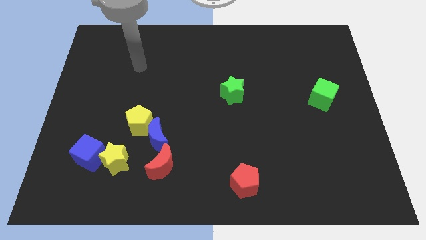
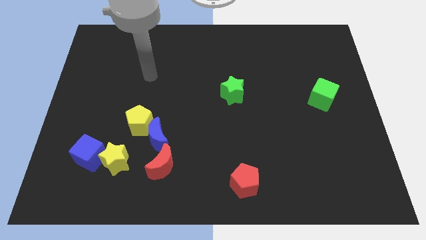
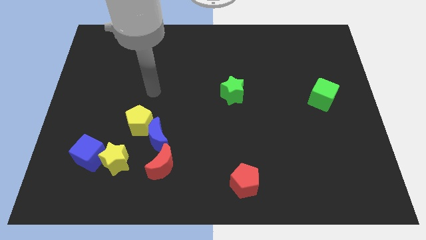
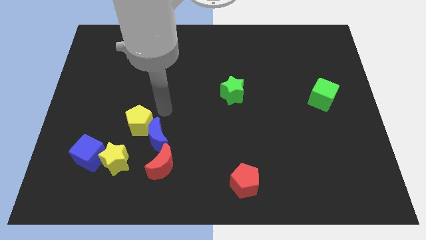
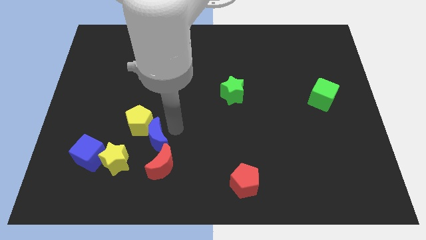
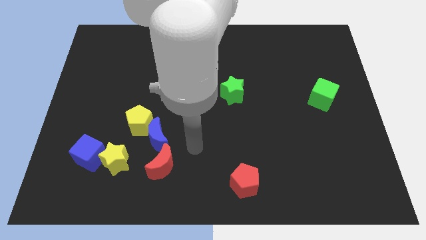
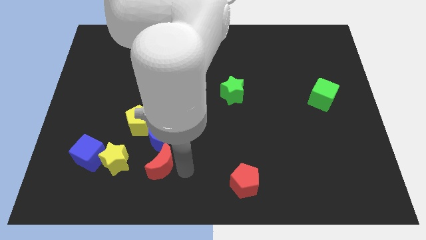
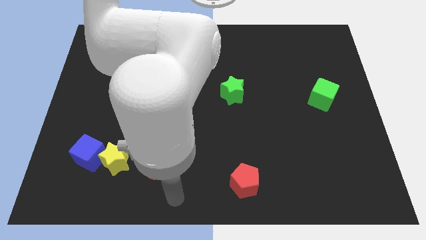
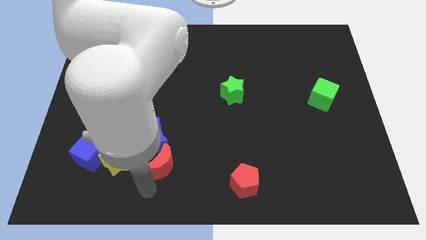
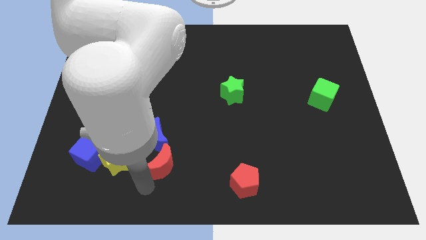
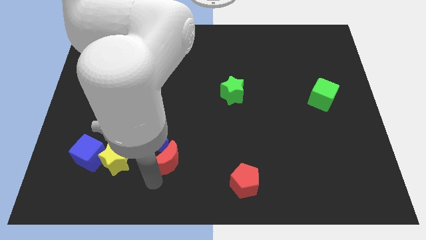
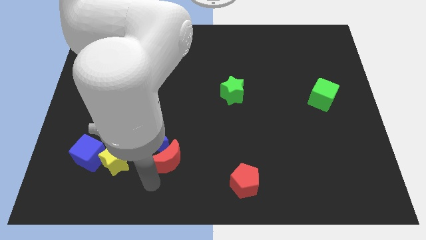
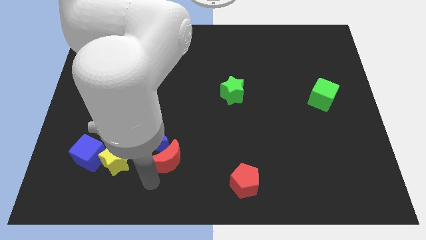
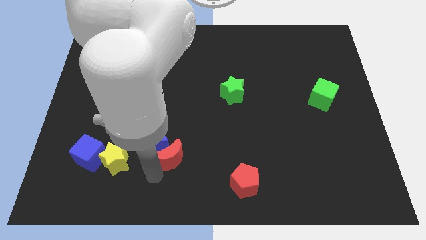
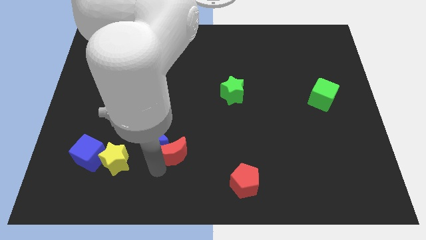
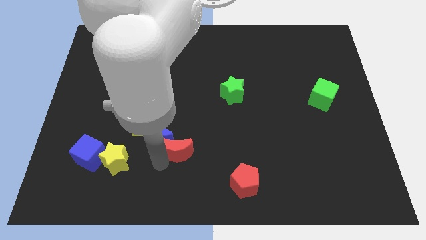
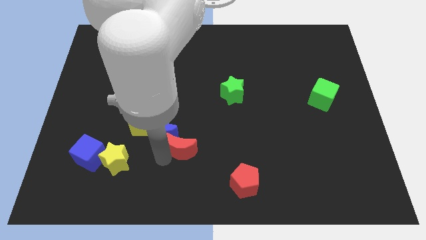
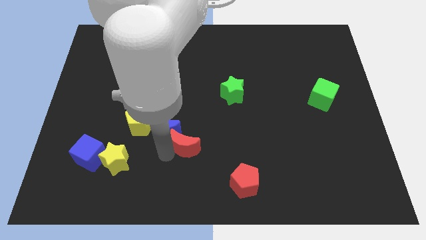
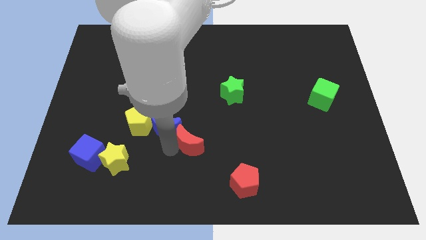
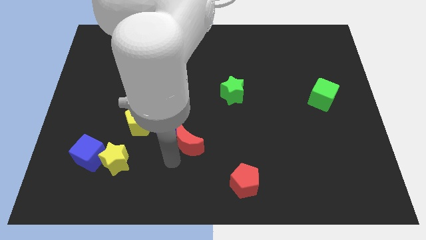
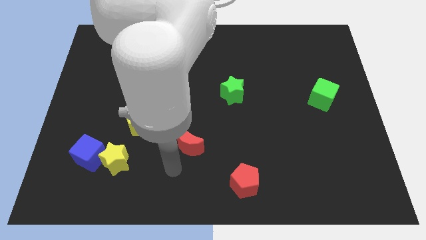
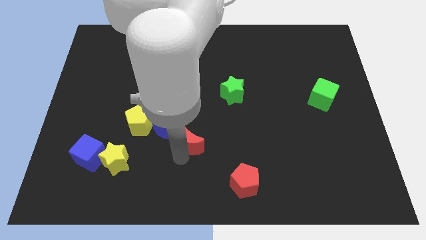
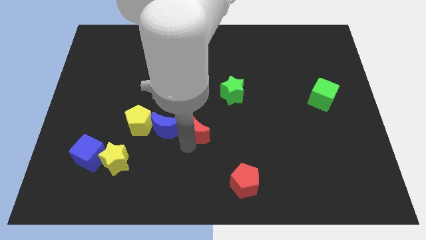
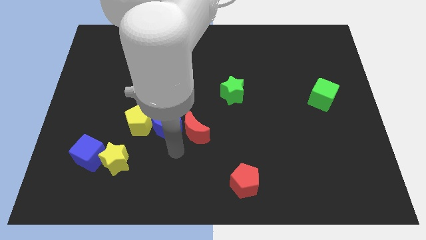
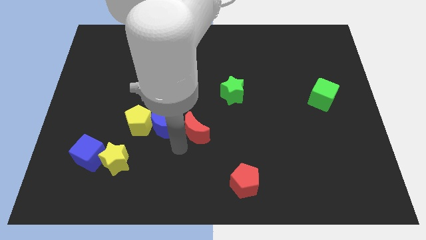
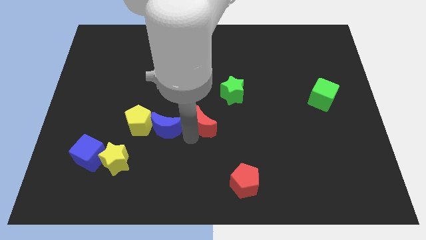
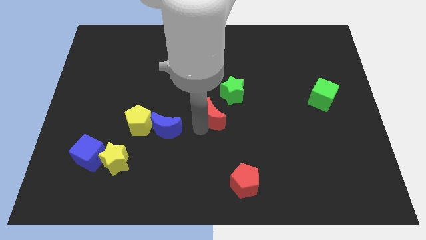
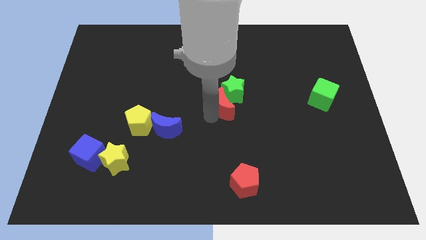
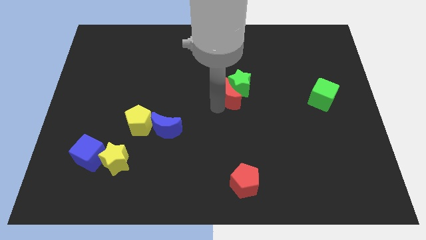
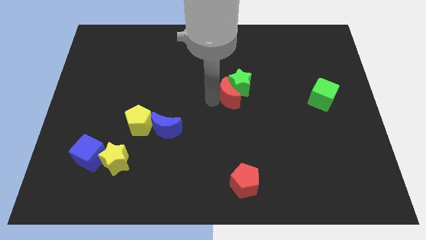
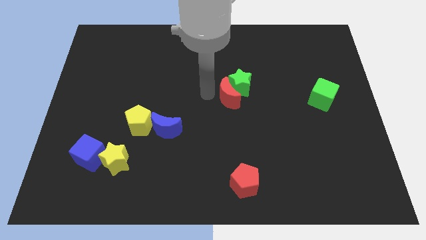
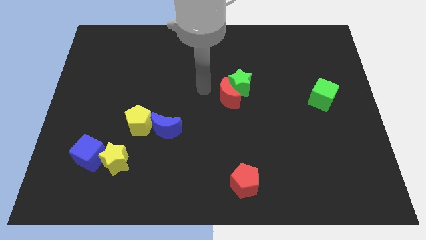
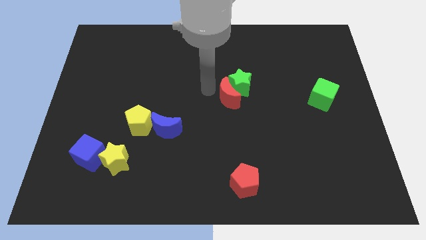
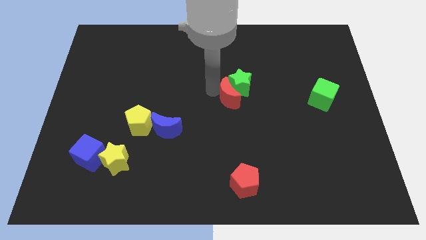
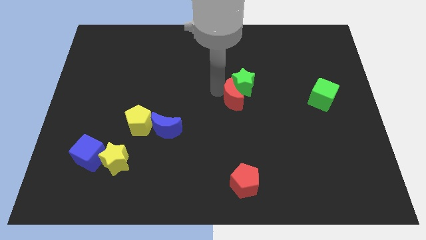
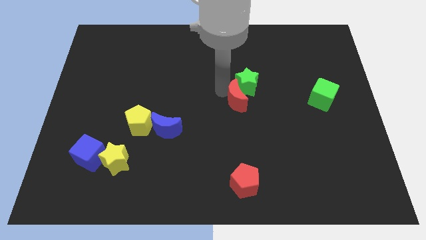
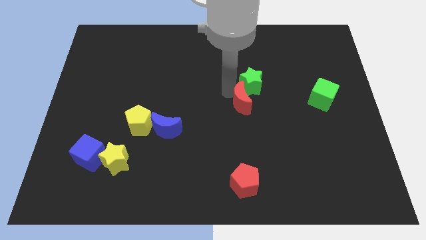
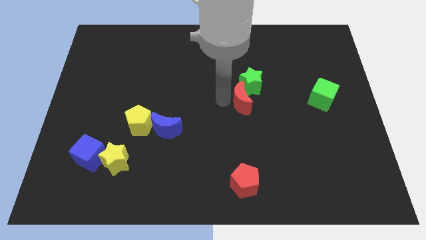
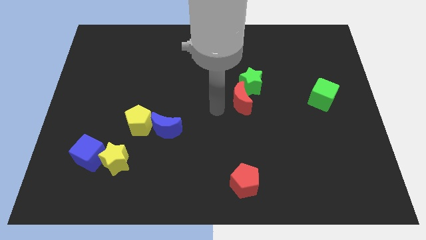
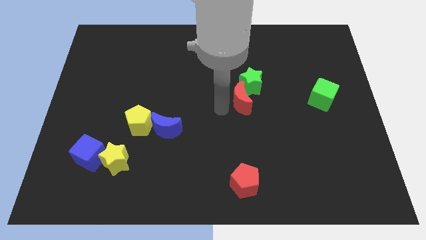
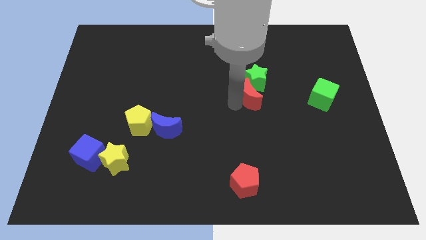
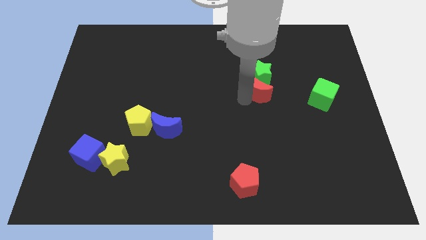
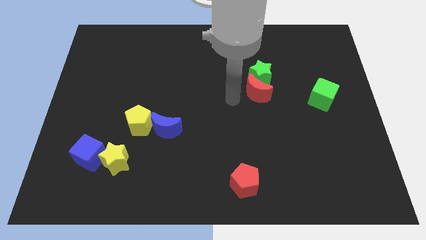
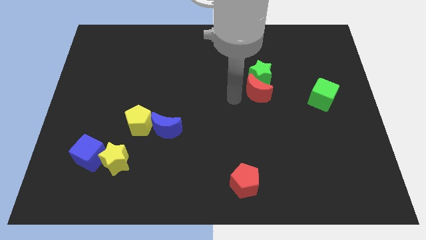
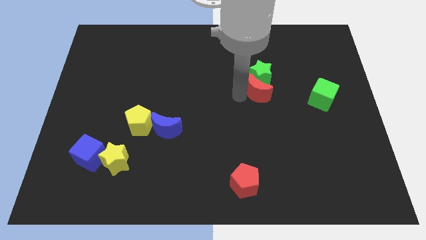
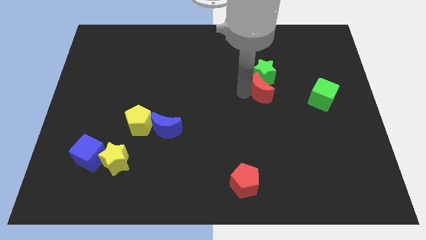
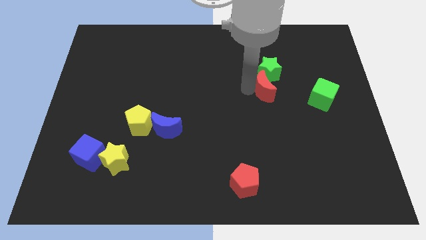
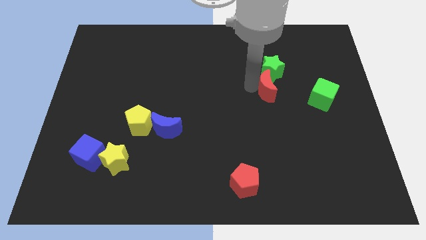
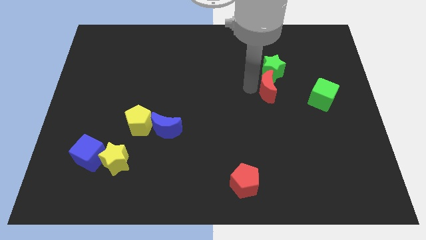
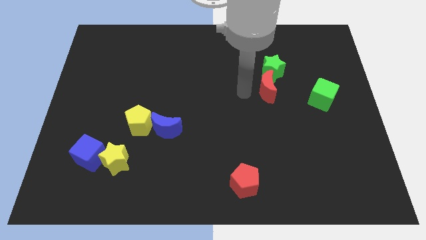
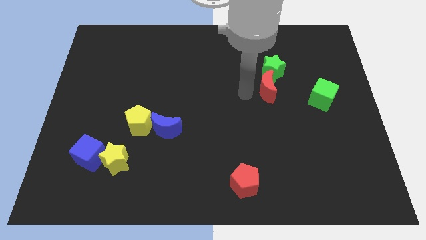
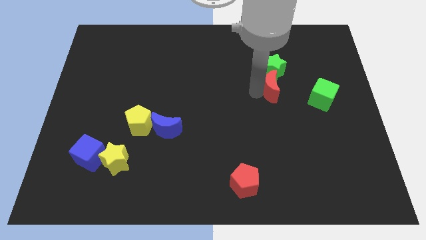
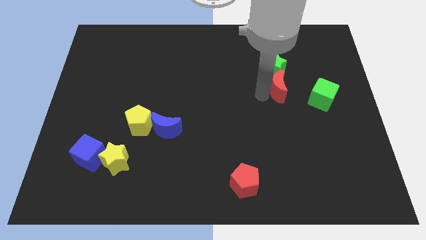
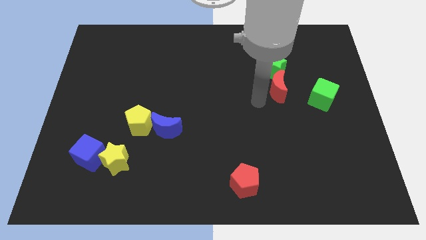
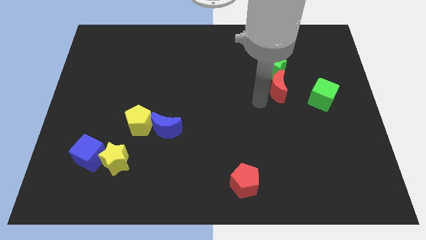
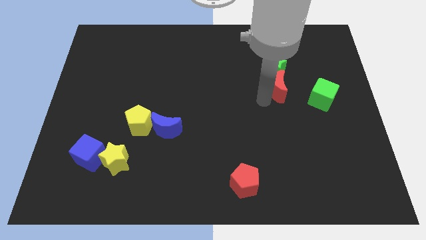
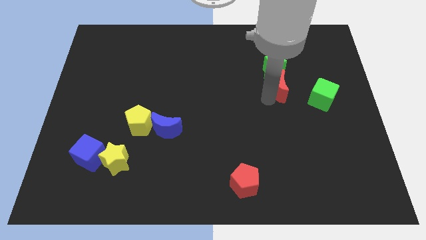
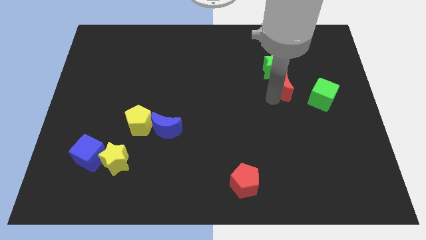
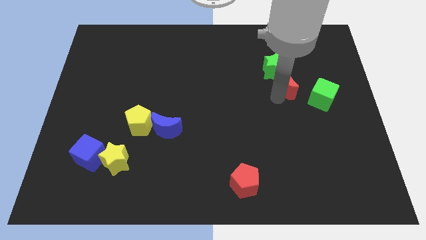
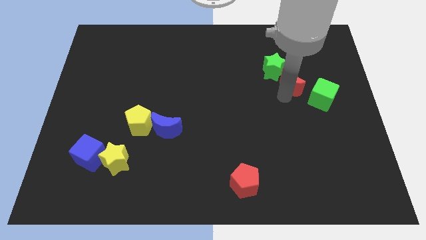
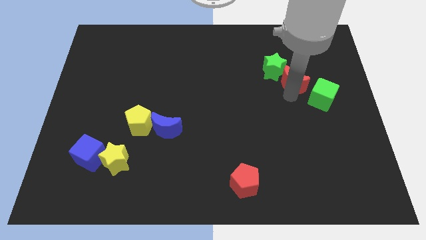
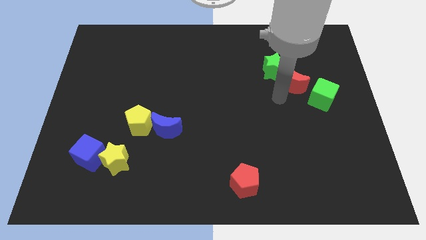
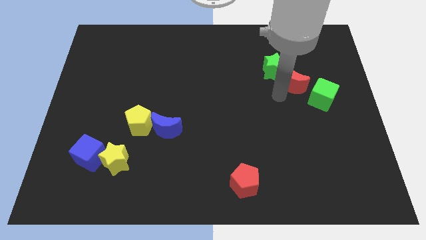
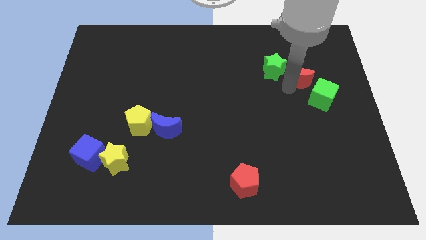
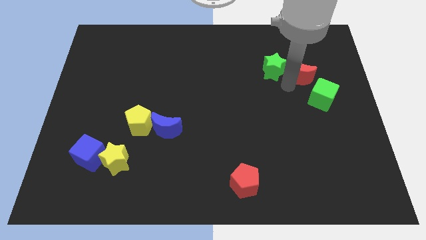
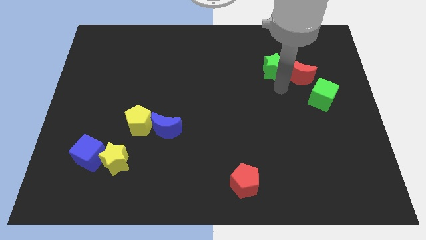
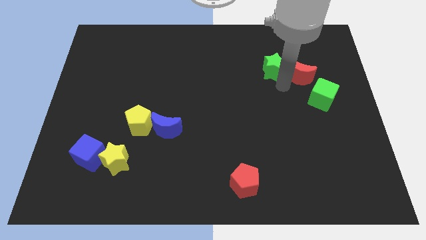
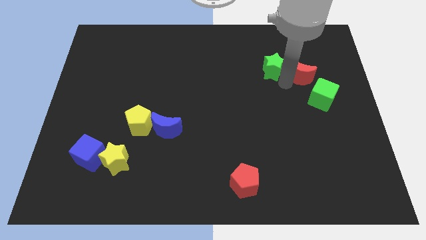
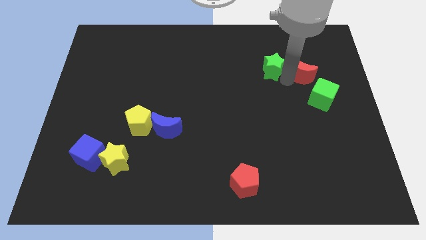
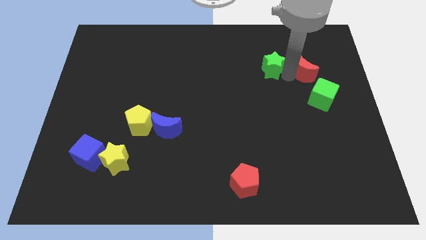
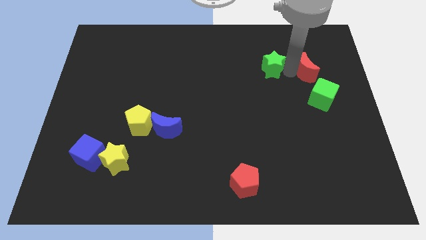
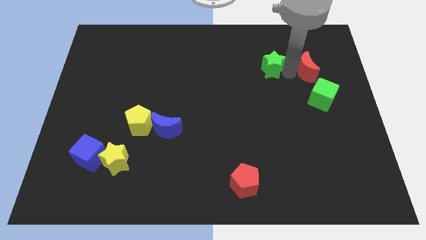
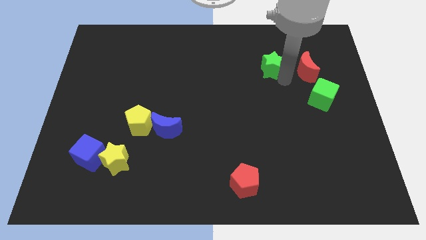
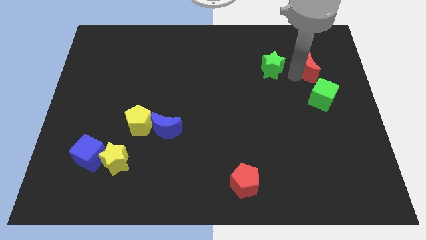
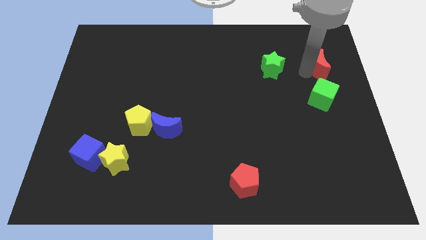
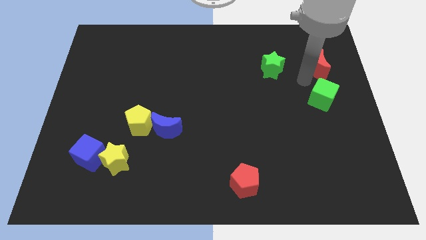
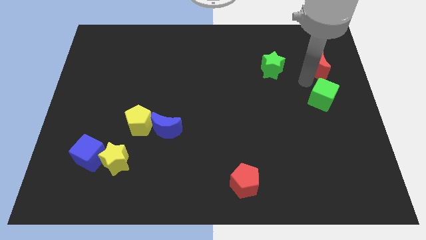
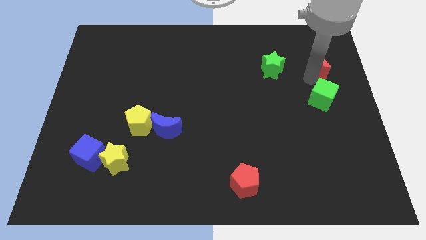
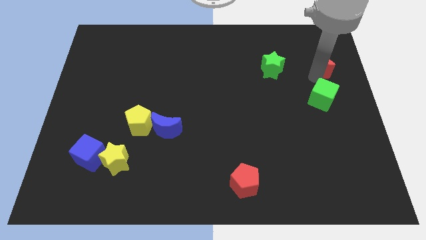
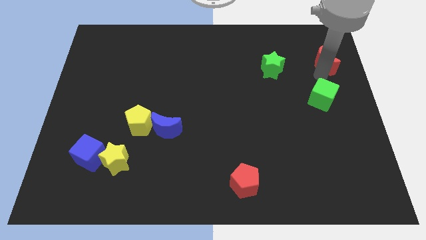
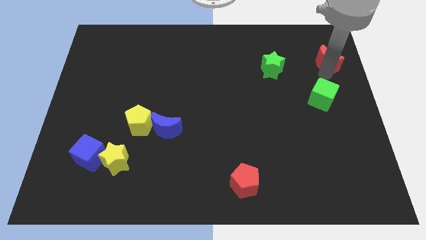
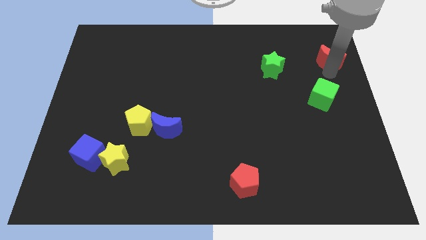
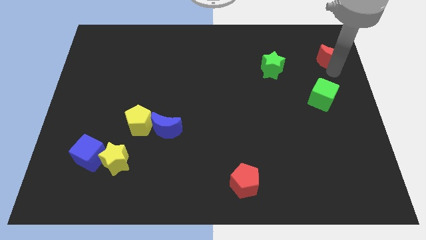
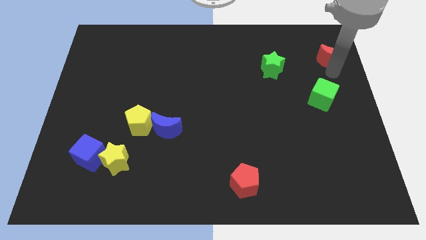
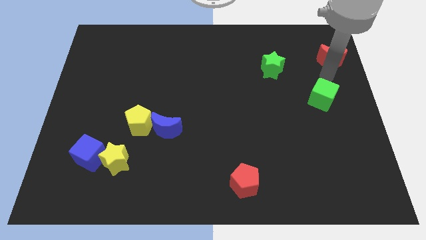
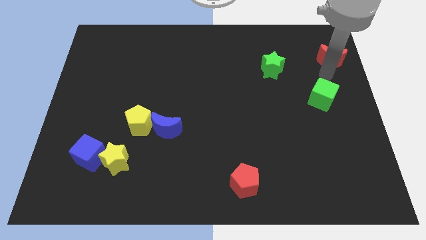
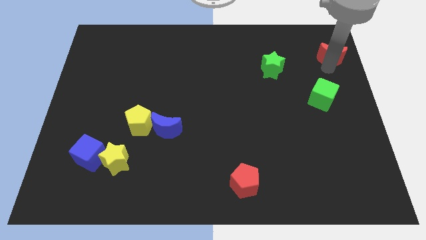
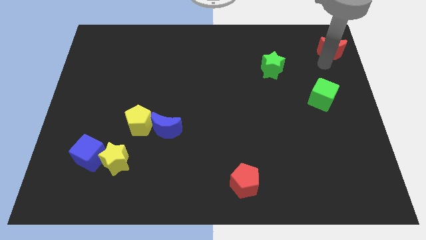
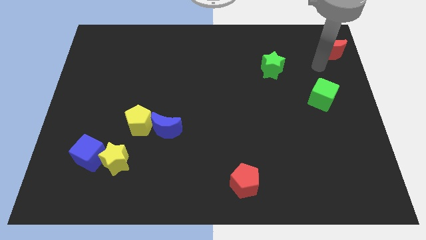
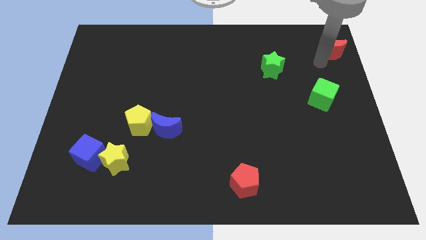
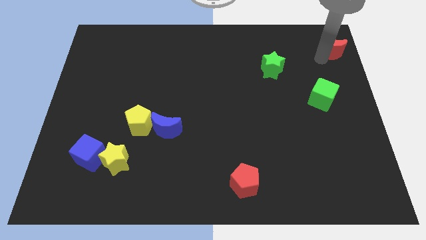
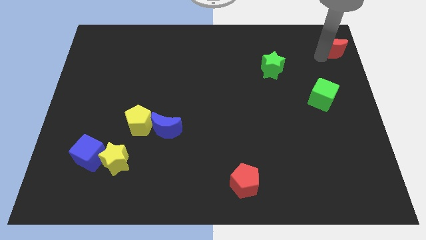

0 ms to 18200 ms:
put the red moon to the top right of the board
